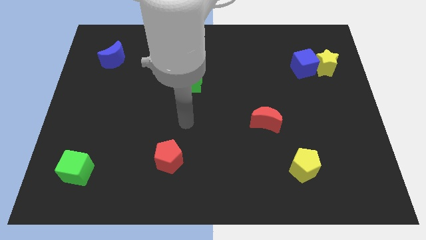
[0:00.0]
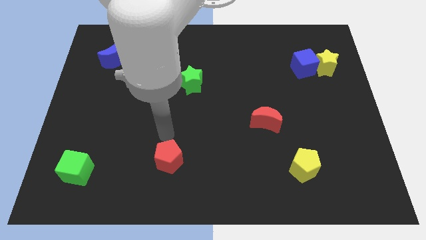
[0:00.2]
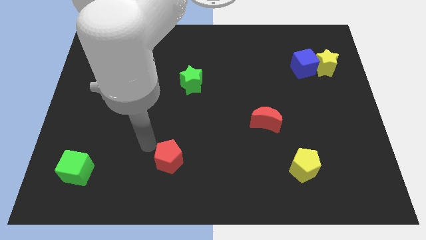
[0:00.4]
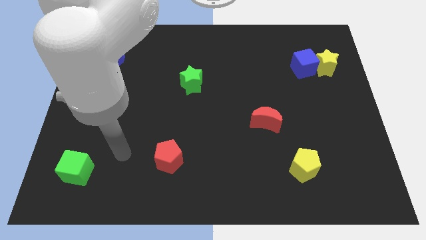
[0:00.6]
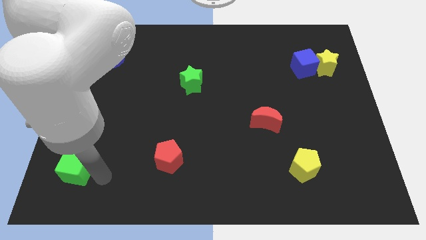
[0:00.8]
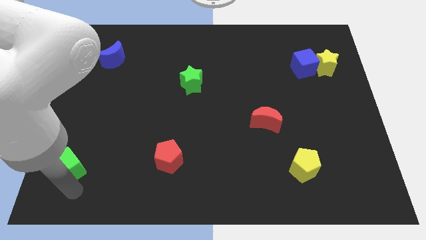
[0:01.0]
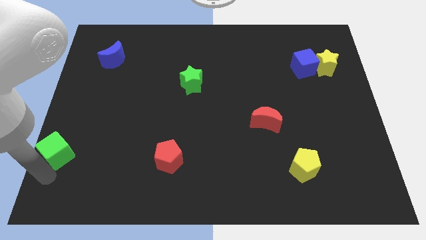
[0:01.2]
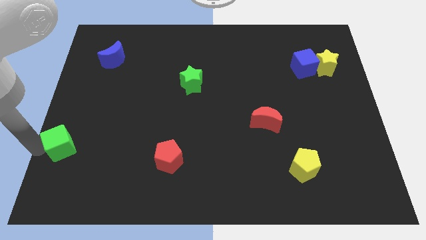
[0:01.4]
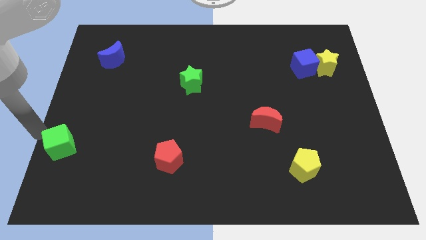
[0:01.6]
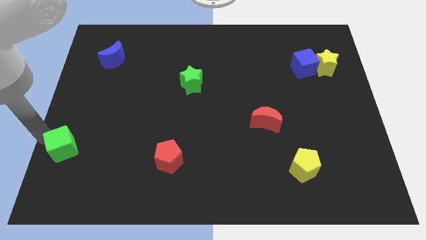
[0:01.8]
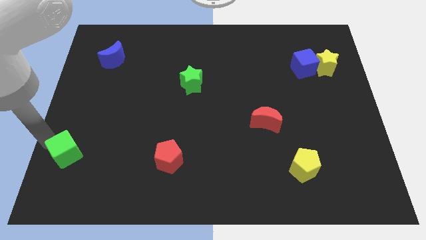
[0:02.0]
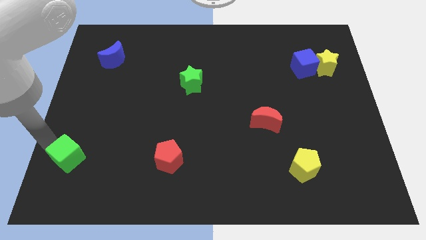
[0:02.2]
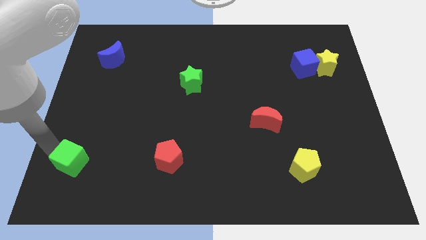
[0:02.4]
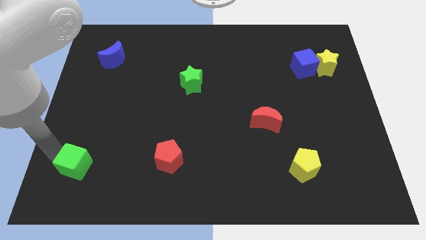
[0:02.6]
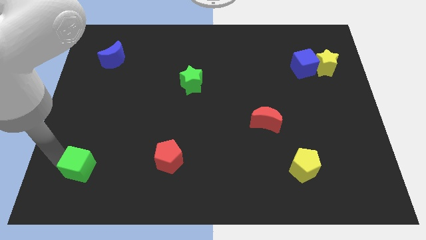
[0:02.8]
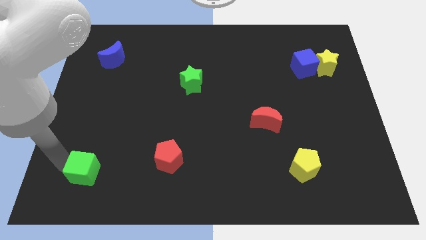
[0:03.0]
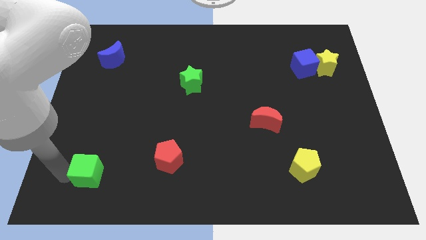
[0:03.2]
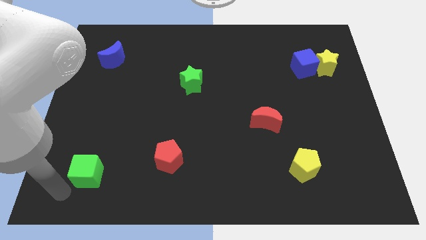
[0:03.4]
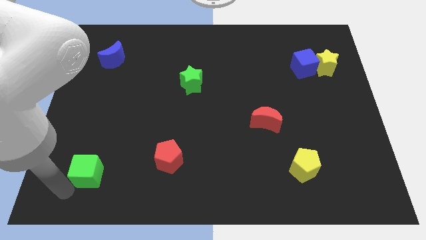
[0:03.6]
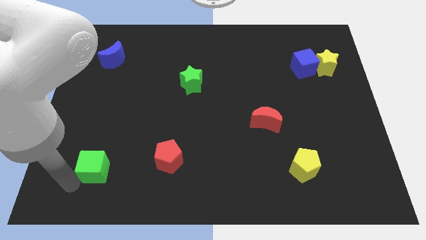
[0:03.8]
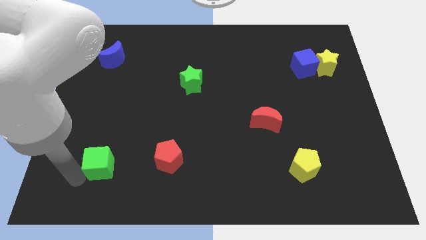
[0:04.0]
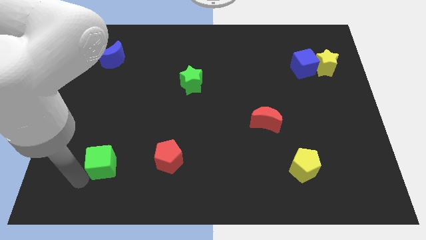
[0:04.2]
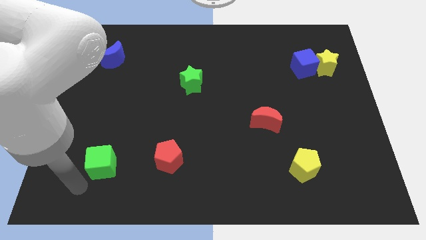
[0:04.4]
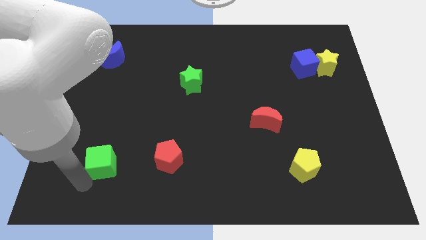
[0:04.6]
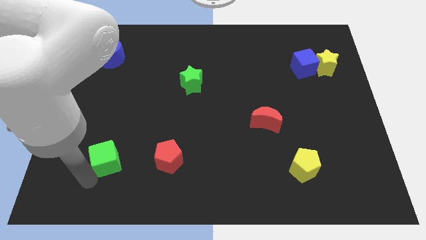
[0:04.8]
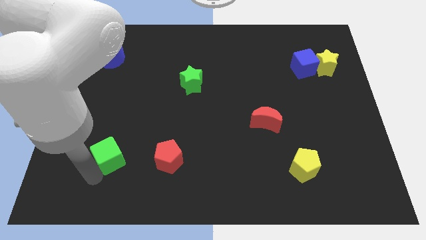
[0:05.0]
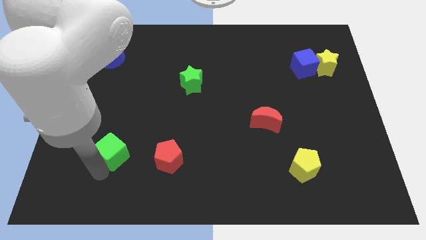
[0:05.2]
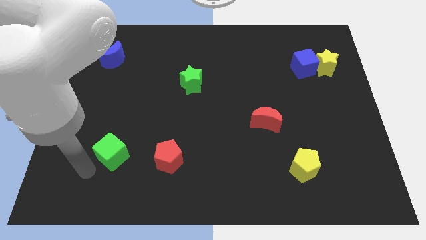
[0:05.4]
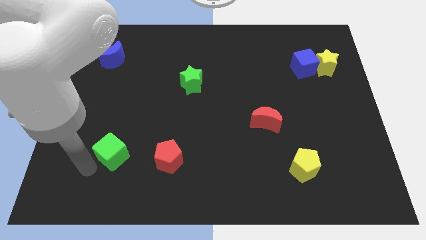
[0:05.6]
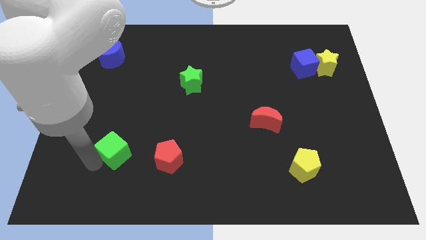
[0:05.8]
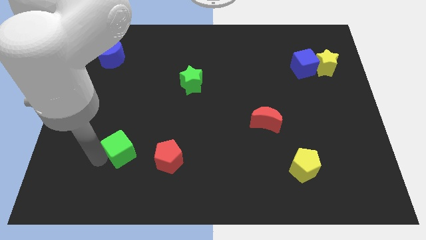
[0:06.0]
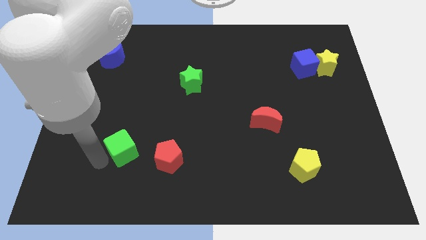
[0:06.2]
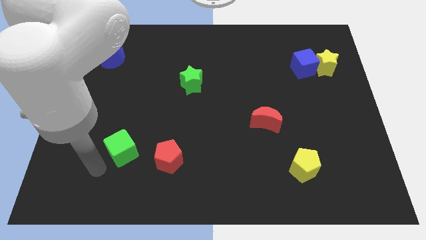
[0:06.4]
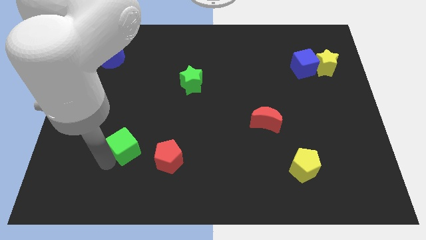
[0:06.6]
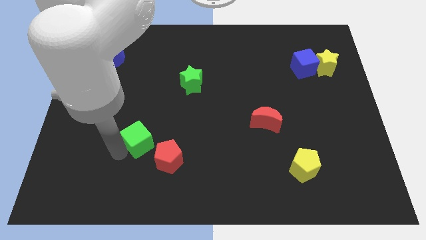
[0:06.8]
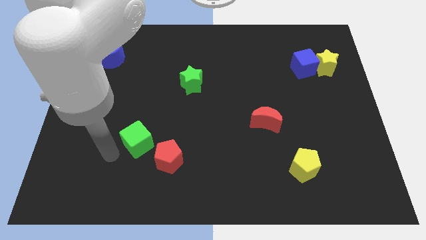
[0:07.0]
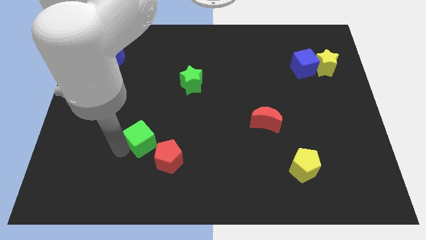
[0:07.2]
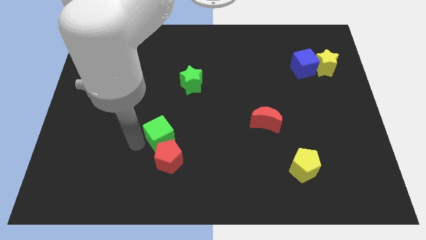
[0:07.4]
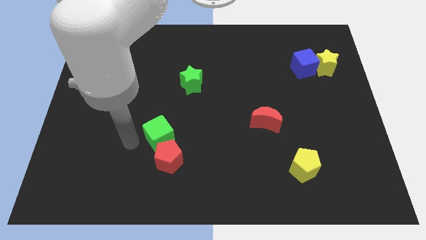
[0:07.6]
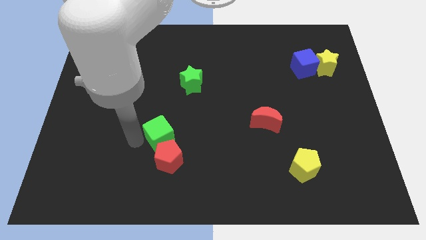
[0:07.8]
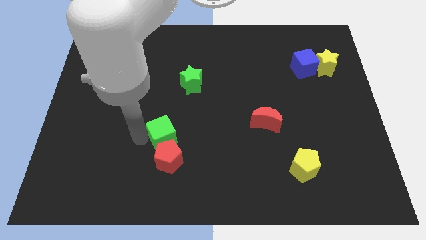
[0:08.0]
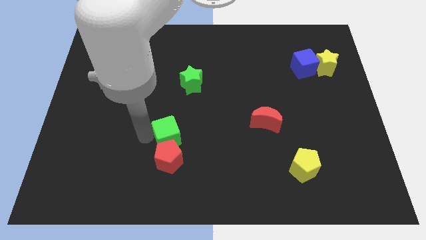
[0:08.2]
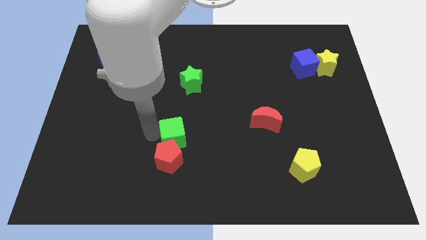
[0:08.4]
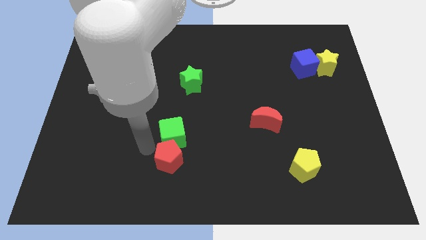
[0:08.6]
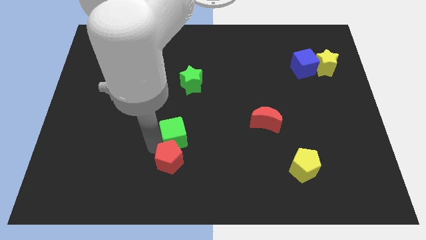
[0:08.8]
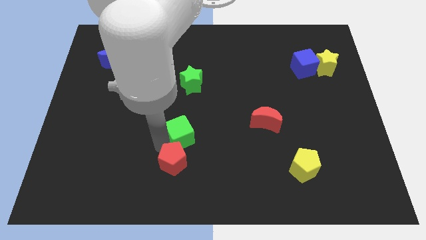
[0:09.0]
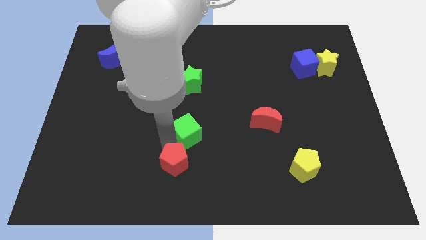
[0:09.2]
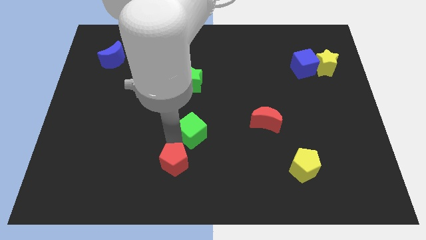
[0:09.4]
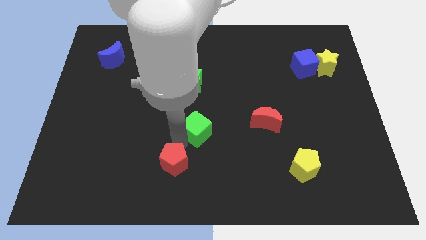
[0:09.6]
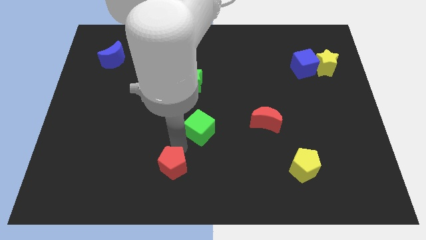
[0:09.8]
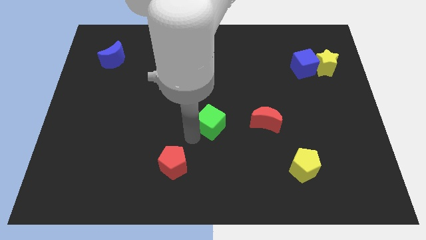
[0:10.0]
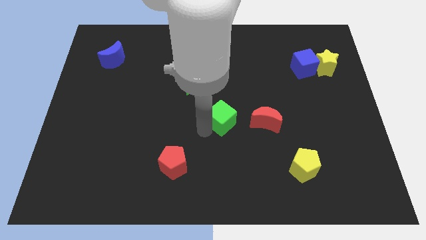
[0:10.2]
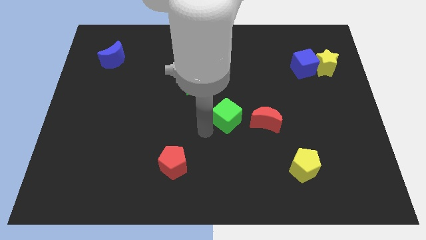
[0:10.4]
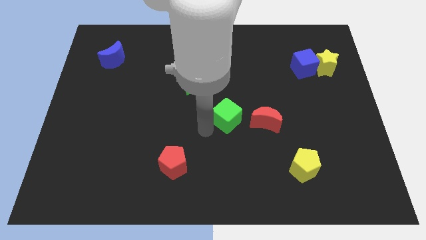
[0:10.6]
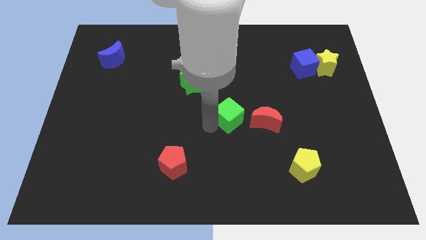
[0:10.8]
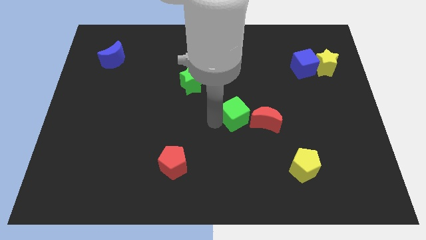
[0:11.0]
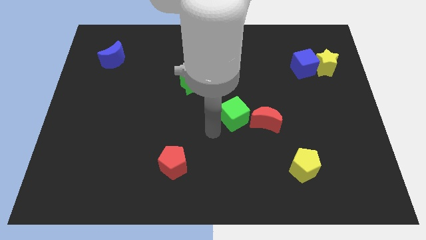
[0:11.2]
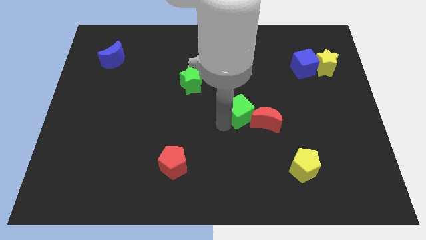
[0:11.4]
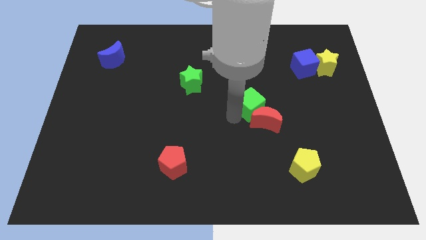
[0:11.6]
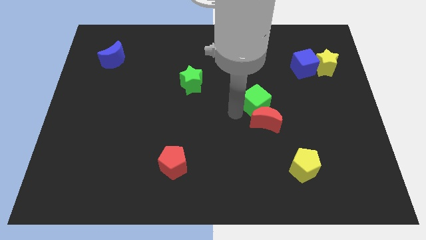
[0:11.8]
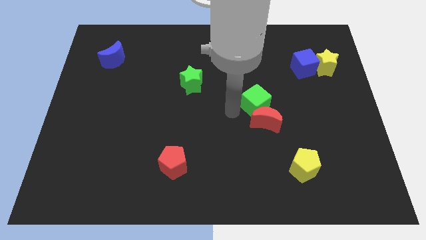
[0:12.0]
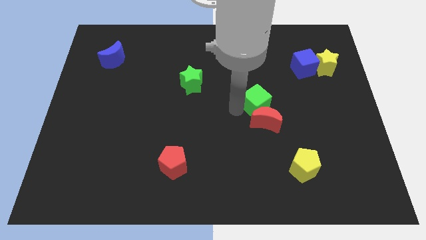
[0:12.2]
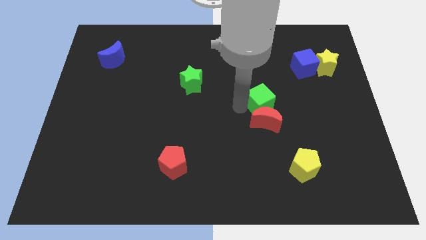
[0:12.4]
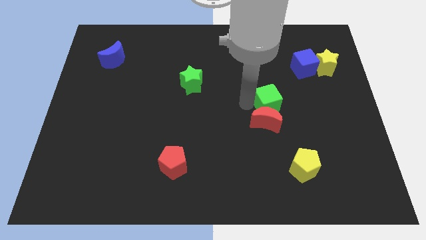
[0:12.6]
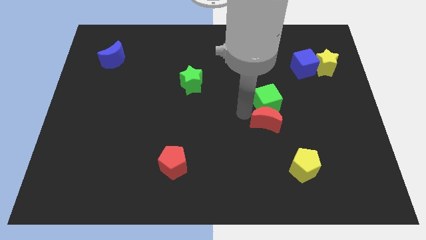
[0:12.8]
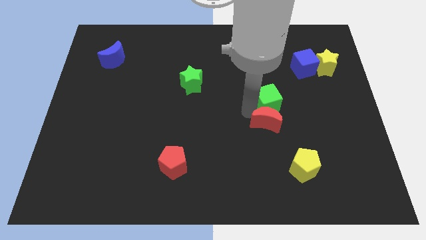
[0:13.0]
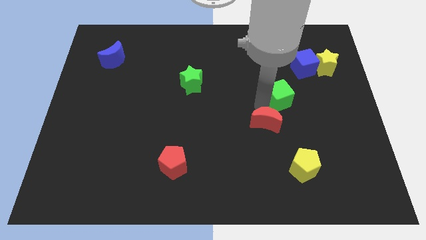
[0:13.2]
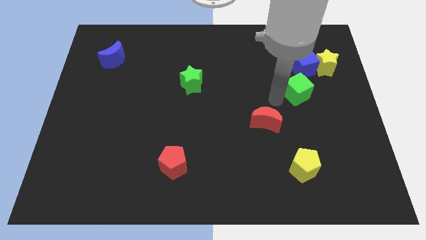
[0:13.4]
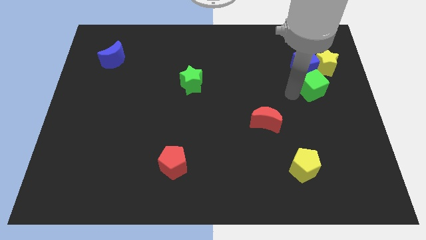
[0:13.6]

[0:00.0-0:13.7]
put the green cube to the bottom right of the blue cube

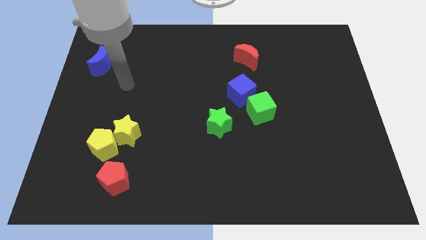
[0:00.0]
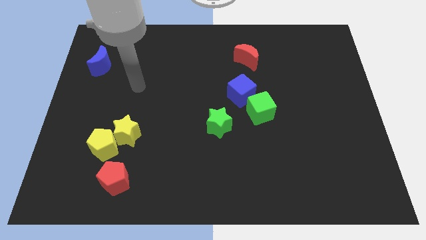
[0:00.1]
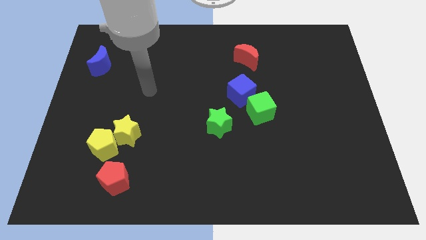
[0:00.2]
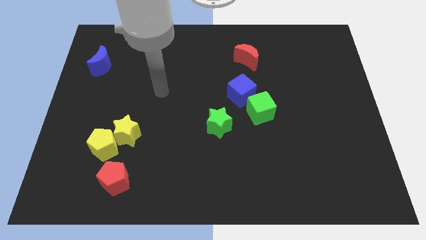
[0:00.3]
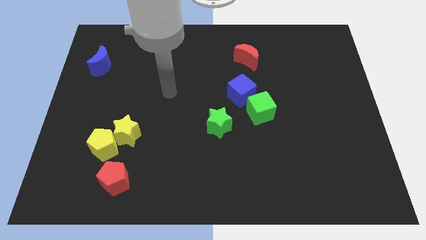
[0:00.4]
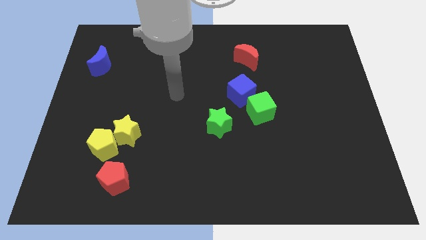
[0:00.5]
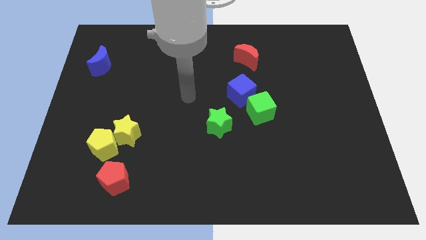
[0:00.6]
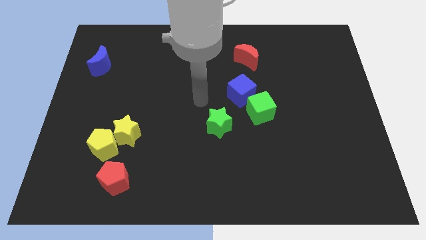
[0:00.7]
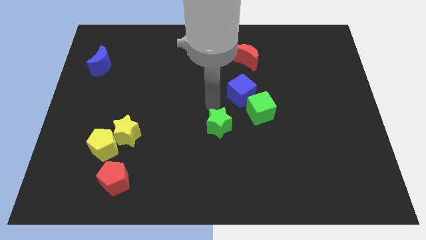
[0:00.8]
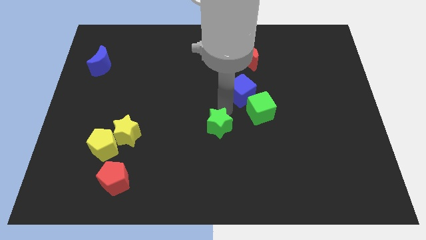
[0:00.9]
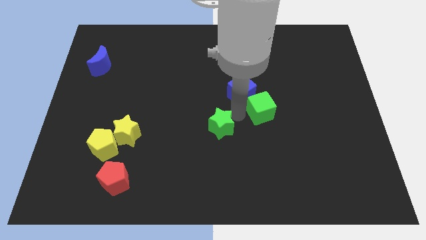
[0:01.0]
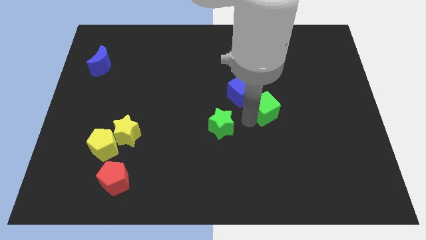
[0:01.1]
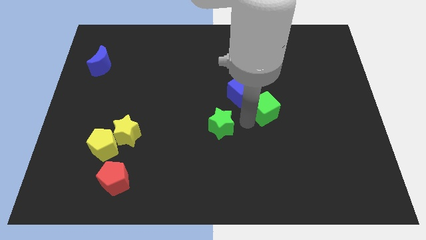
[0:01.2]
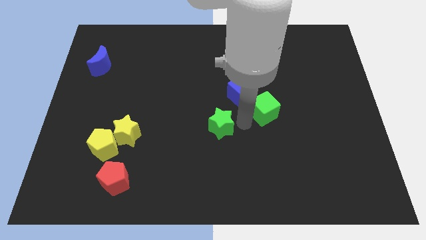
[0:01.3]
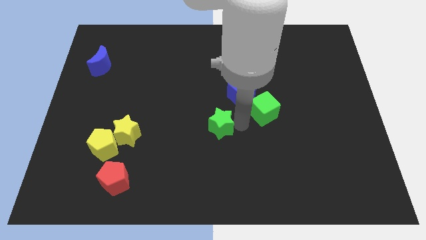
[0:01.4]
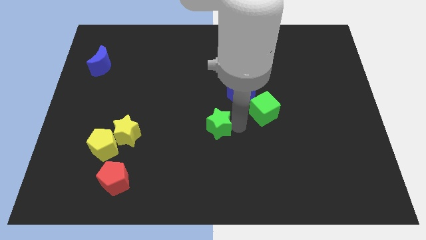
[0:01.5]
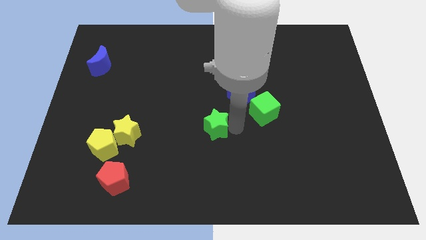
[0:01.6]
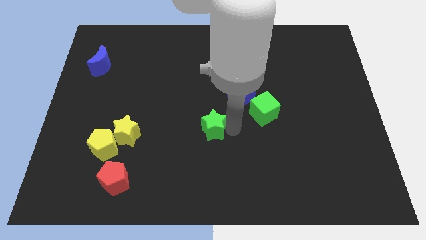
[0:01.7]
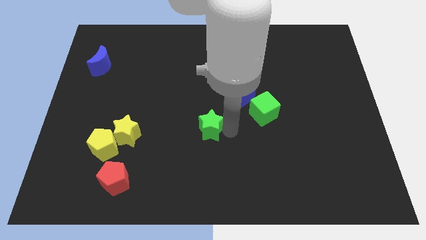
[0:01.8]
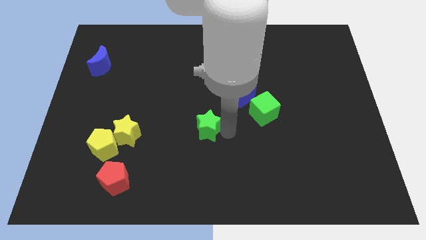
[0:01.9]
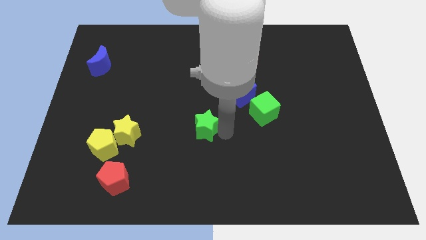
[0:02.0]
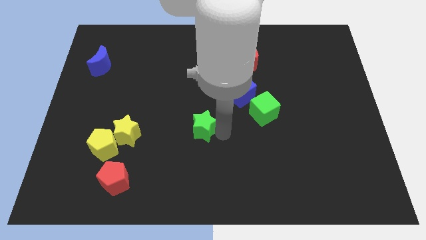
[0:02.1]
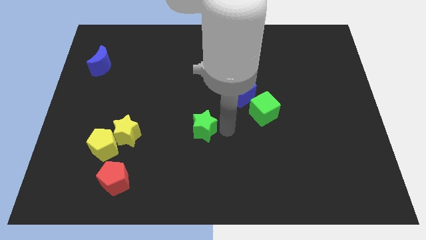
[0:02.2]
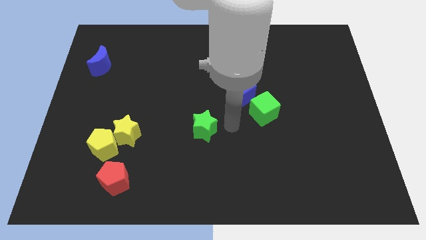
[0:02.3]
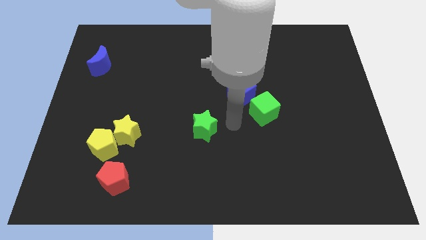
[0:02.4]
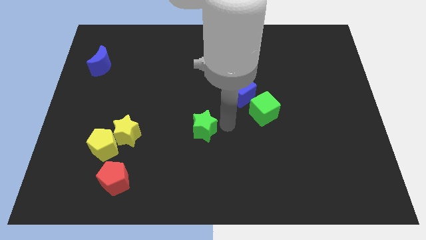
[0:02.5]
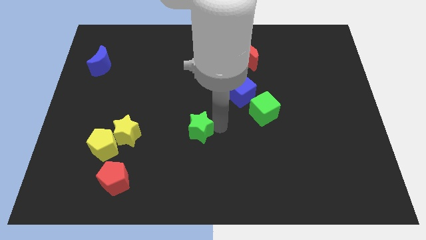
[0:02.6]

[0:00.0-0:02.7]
move the green star just right of the yellow star
